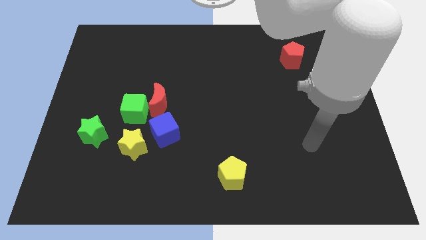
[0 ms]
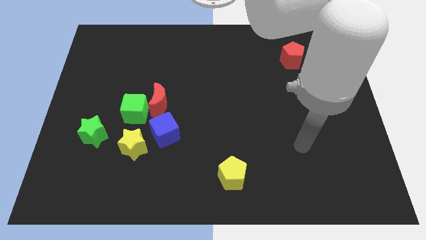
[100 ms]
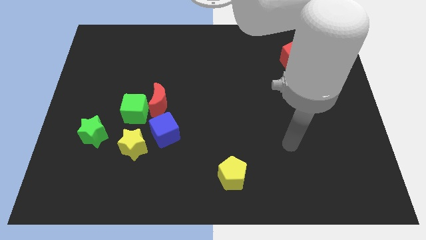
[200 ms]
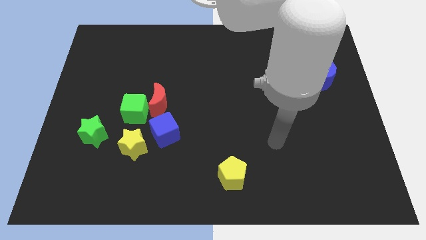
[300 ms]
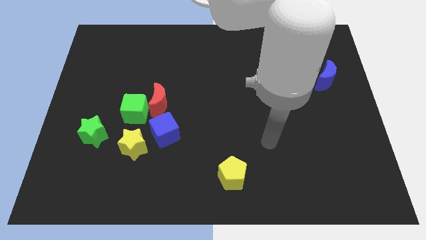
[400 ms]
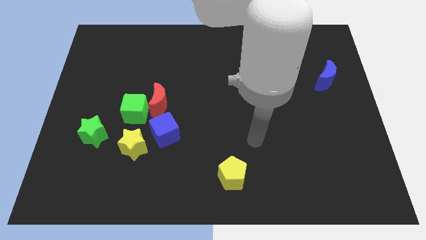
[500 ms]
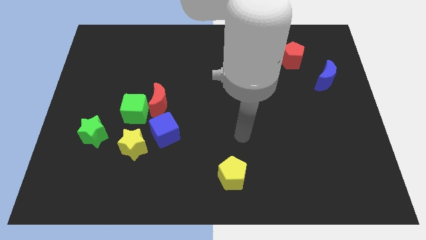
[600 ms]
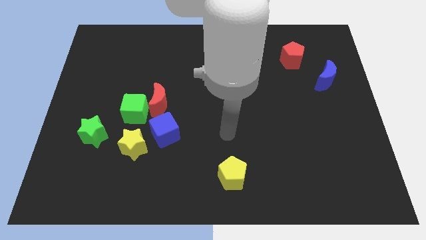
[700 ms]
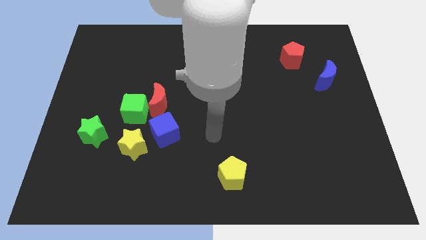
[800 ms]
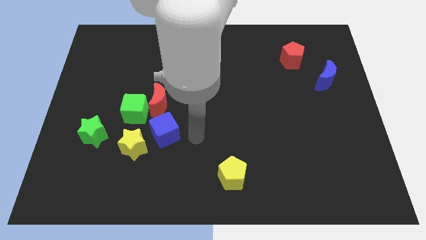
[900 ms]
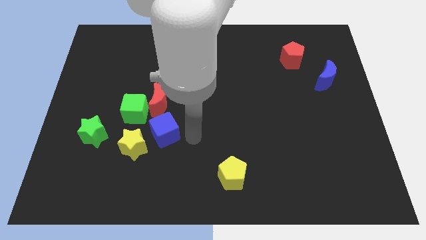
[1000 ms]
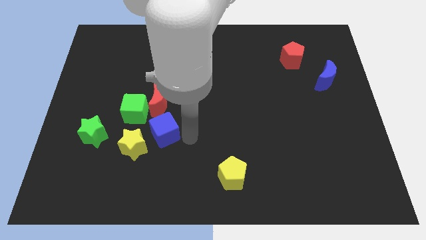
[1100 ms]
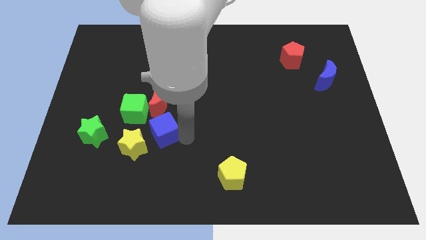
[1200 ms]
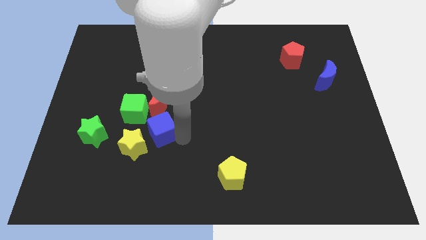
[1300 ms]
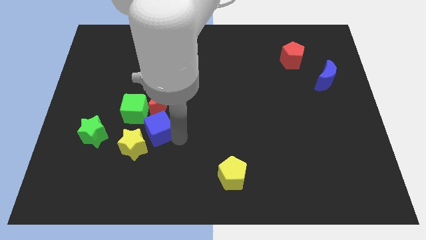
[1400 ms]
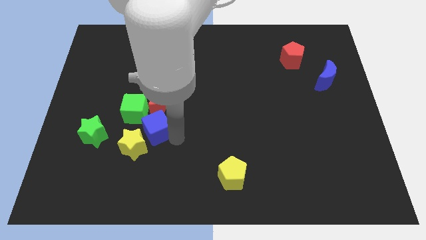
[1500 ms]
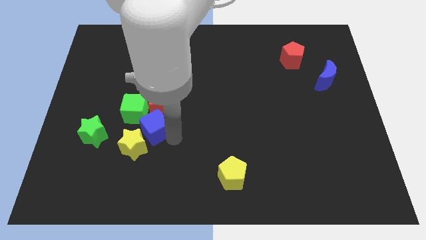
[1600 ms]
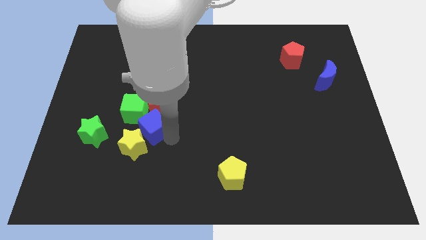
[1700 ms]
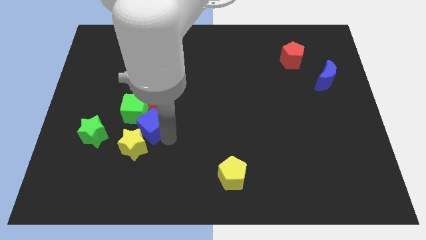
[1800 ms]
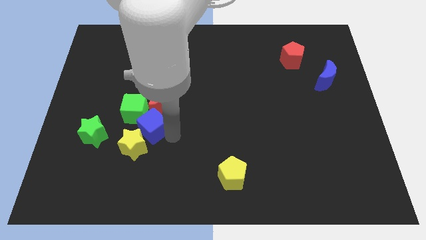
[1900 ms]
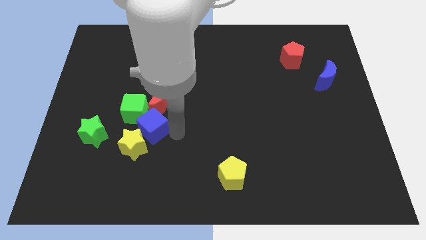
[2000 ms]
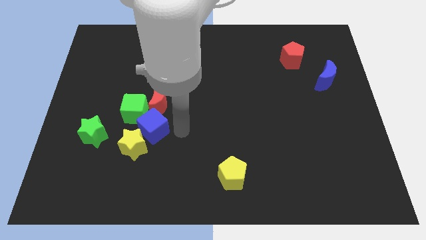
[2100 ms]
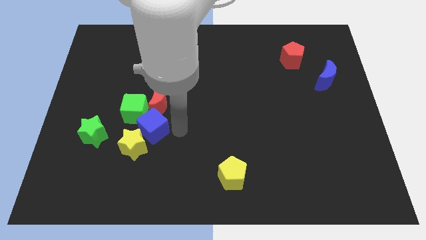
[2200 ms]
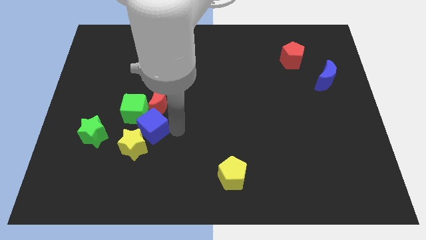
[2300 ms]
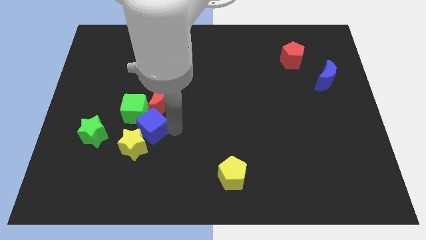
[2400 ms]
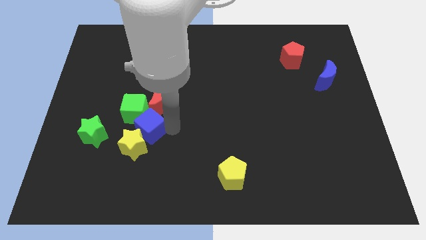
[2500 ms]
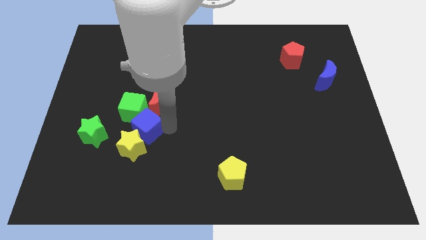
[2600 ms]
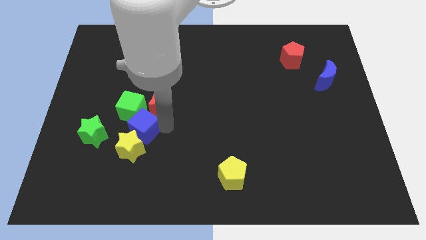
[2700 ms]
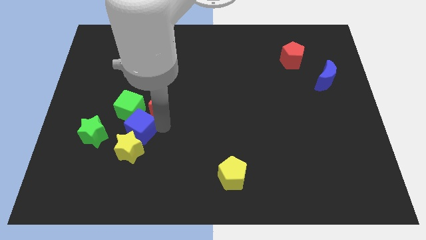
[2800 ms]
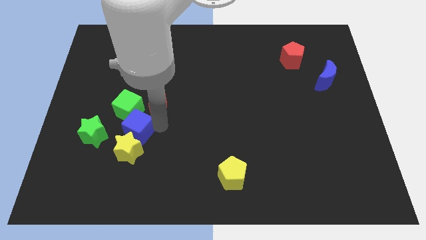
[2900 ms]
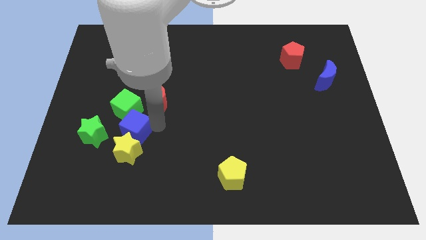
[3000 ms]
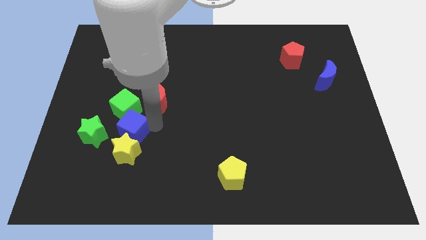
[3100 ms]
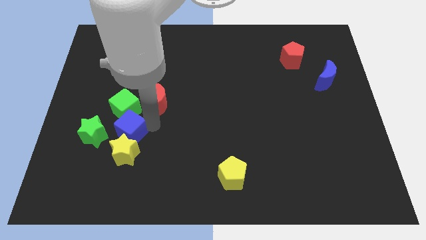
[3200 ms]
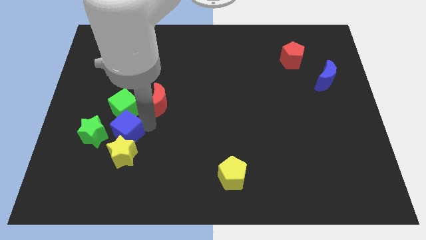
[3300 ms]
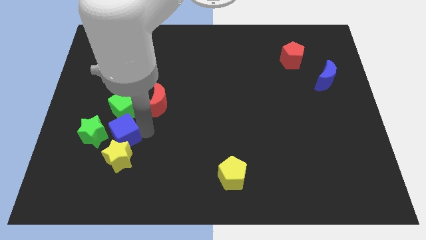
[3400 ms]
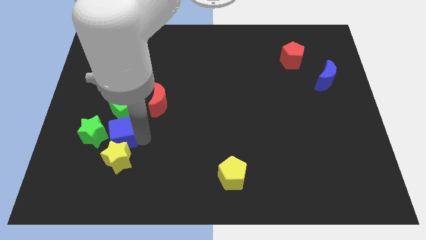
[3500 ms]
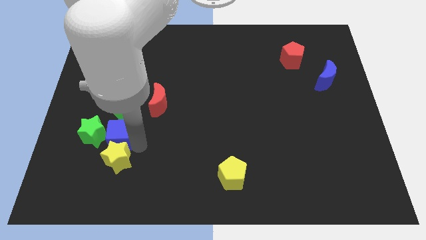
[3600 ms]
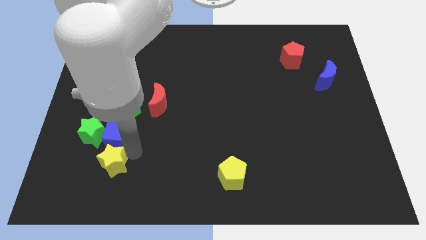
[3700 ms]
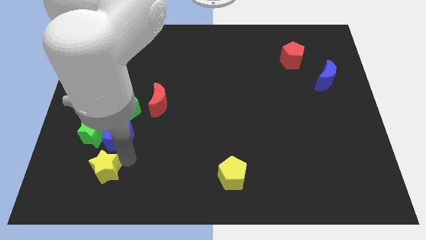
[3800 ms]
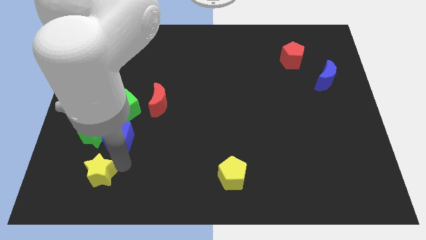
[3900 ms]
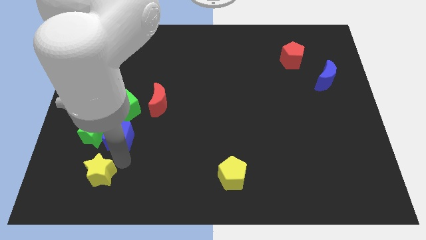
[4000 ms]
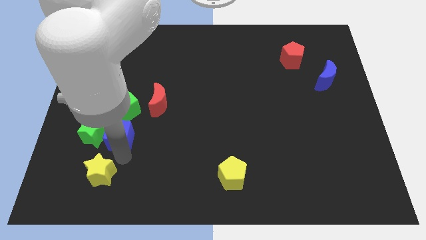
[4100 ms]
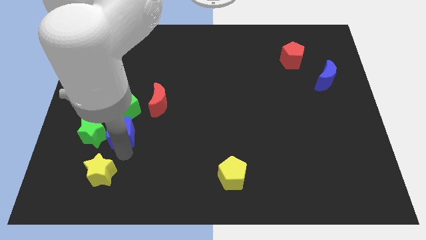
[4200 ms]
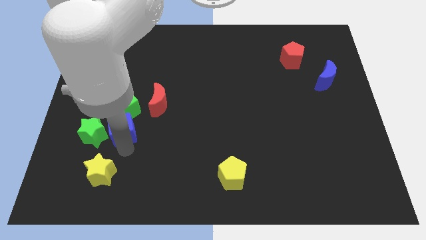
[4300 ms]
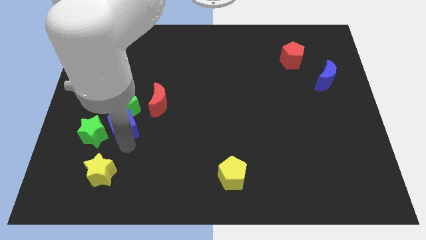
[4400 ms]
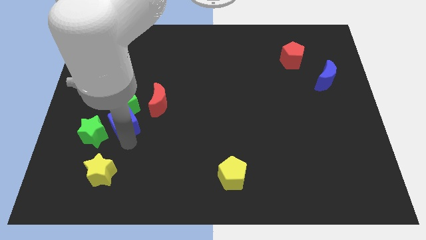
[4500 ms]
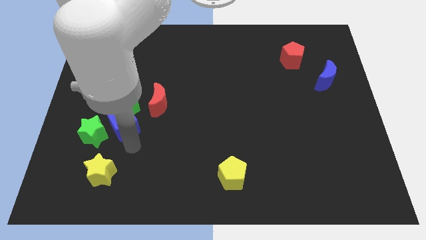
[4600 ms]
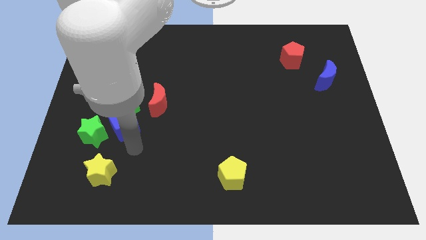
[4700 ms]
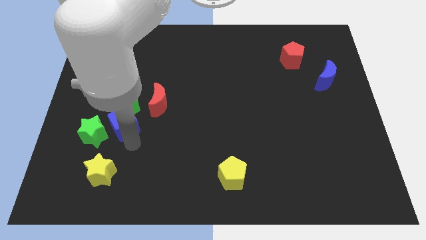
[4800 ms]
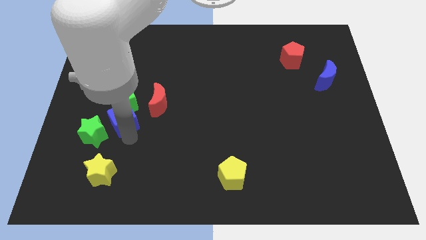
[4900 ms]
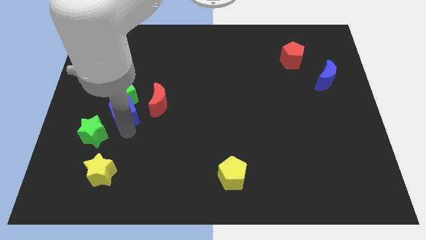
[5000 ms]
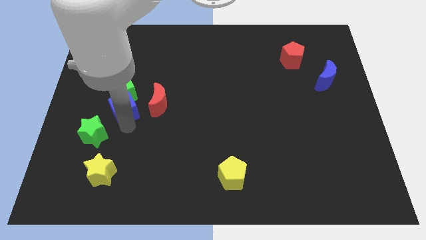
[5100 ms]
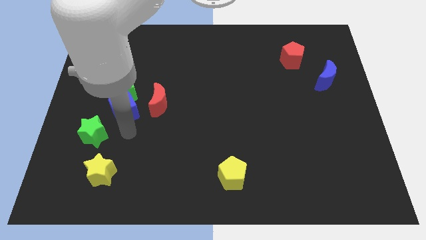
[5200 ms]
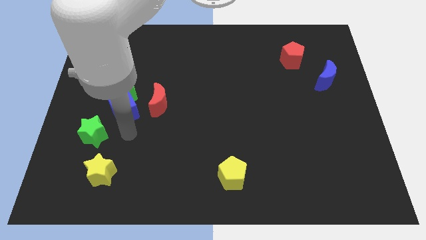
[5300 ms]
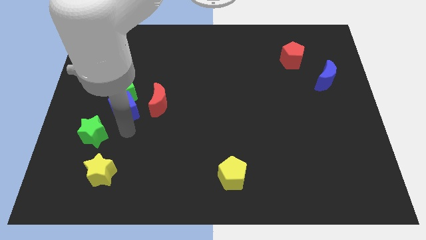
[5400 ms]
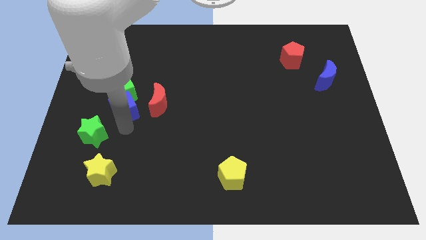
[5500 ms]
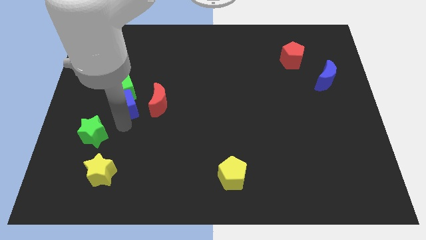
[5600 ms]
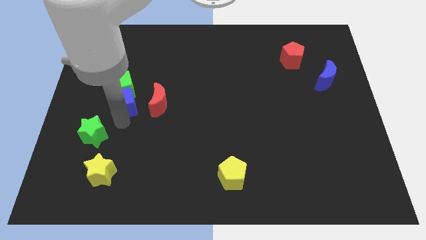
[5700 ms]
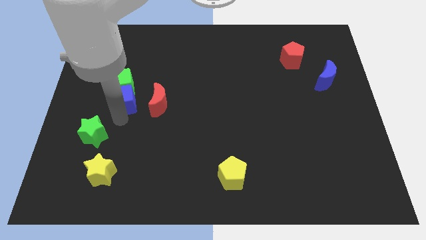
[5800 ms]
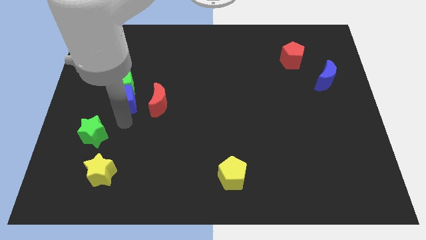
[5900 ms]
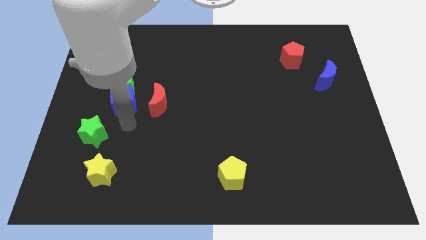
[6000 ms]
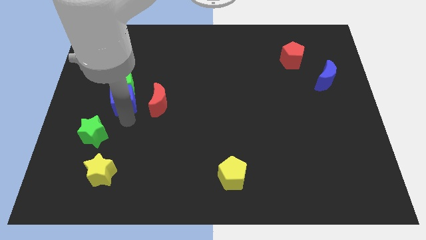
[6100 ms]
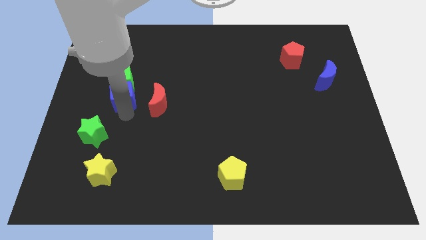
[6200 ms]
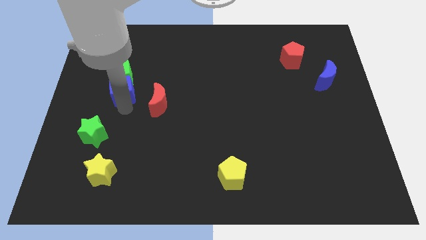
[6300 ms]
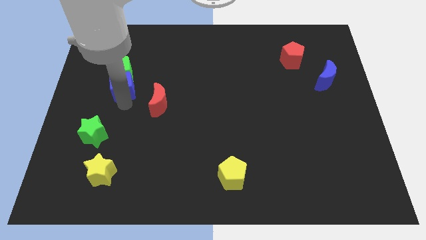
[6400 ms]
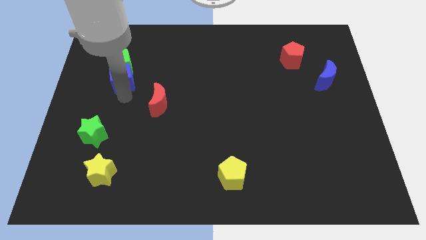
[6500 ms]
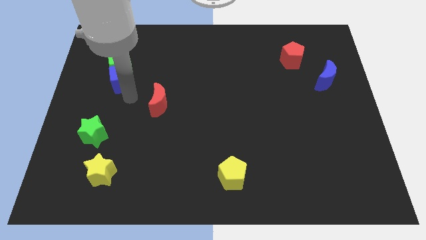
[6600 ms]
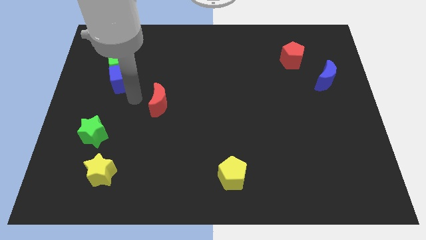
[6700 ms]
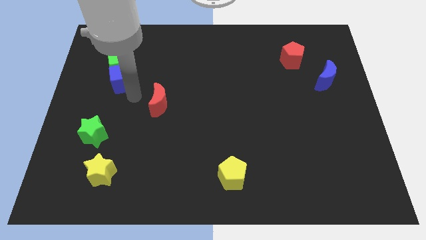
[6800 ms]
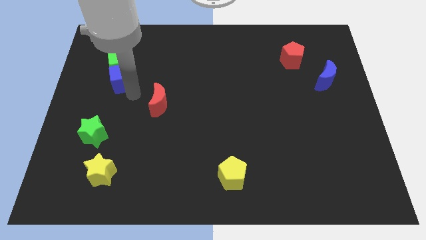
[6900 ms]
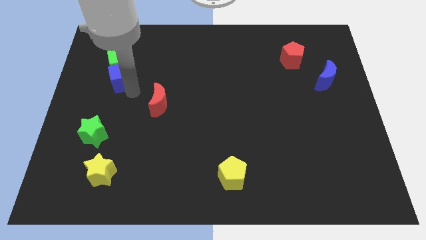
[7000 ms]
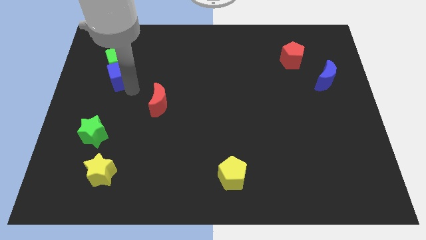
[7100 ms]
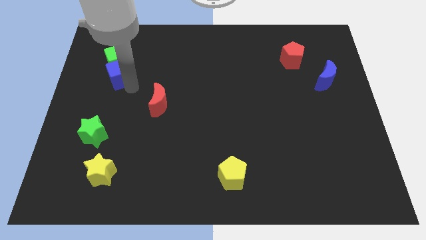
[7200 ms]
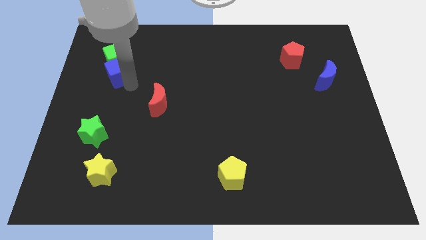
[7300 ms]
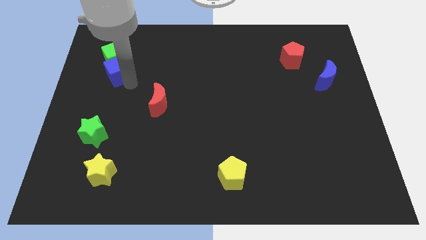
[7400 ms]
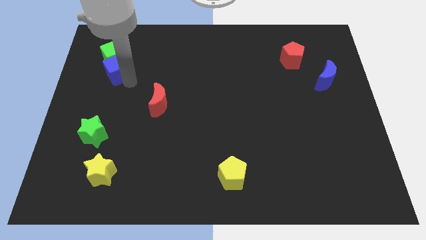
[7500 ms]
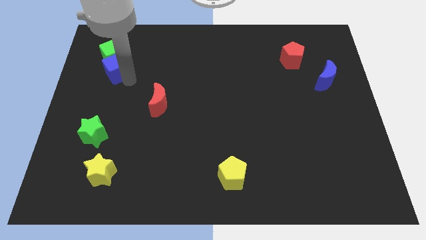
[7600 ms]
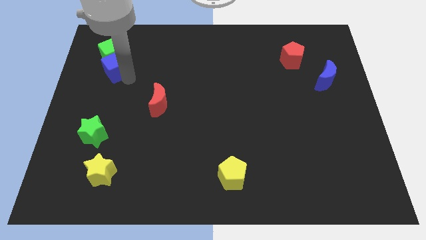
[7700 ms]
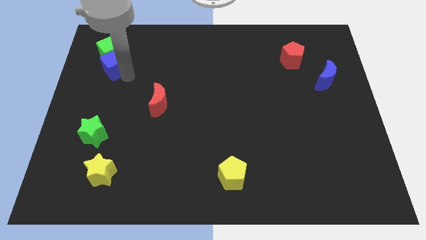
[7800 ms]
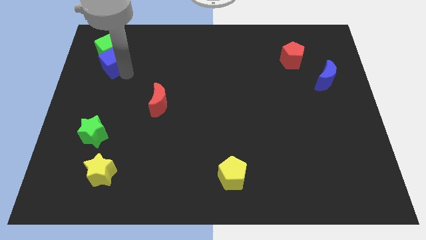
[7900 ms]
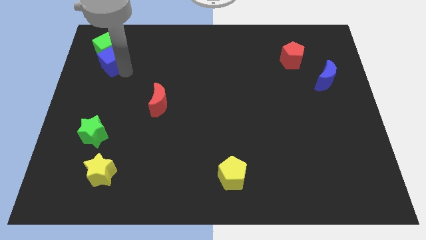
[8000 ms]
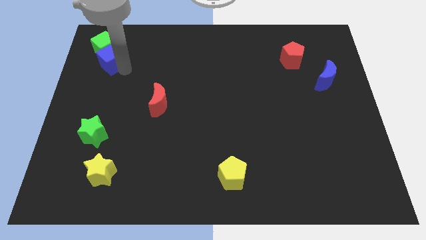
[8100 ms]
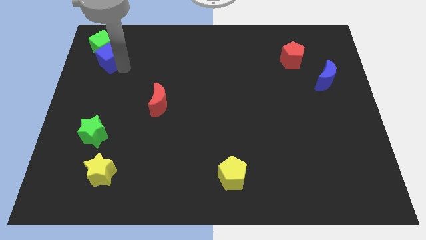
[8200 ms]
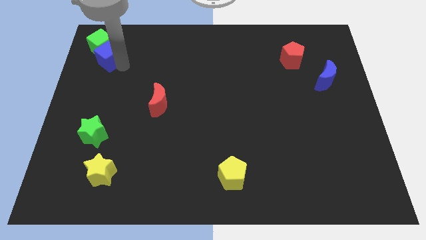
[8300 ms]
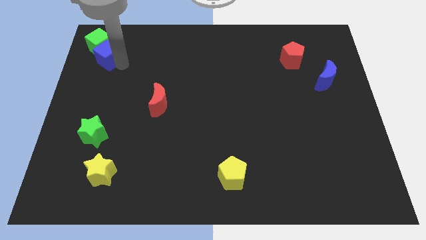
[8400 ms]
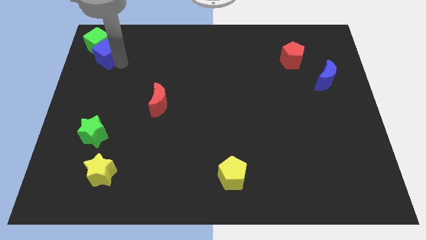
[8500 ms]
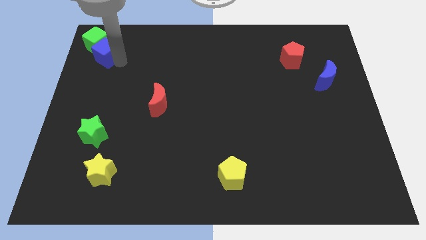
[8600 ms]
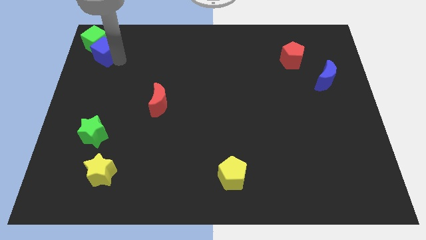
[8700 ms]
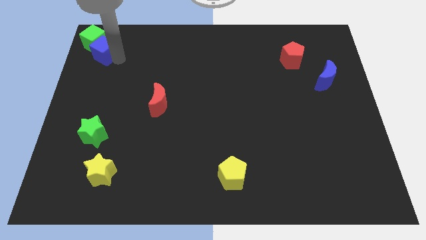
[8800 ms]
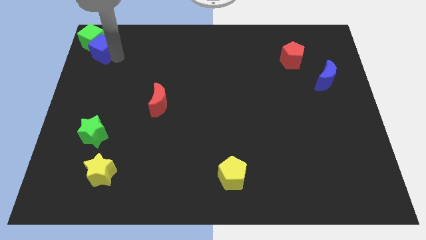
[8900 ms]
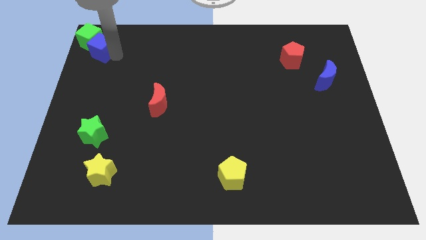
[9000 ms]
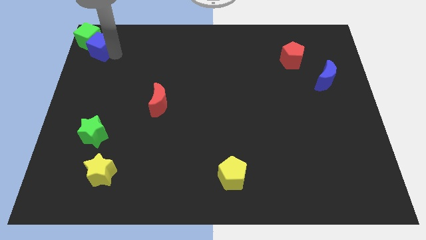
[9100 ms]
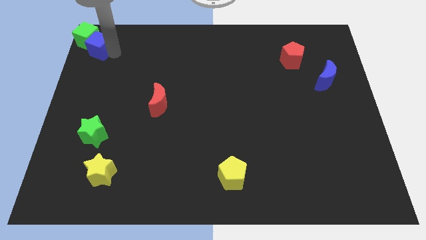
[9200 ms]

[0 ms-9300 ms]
put the blue cube to the top left of the board
